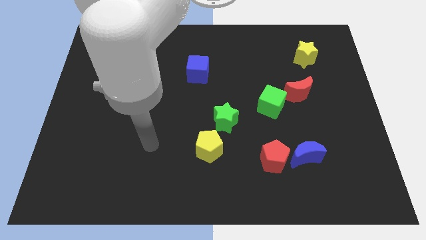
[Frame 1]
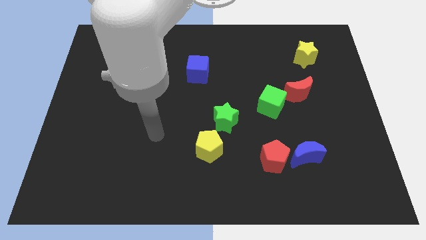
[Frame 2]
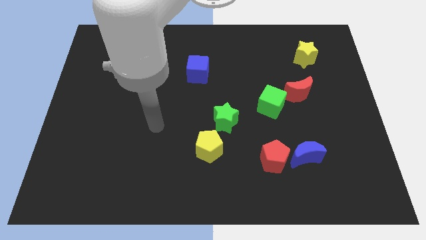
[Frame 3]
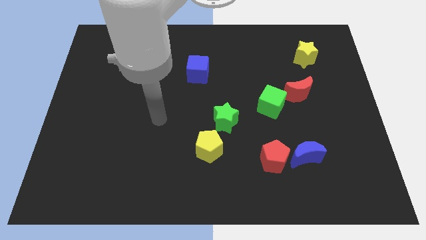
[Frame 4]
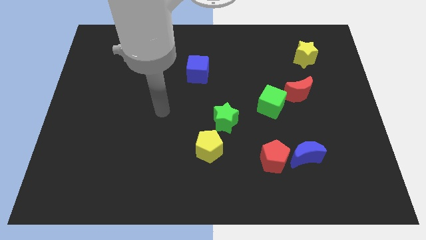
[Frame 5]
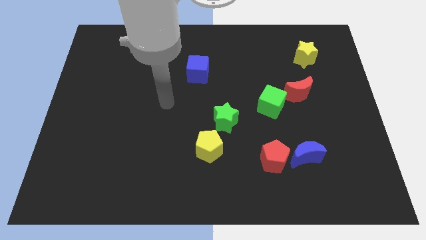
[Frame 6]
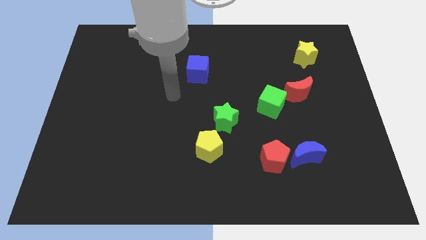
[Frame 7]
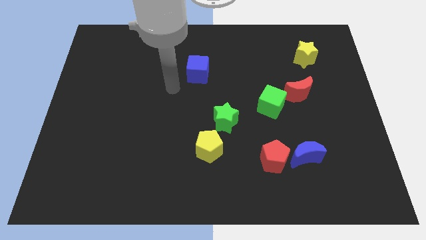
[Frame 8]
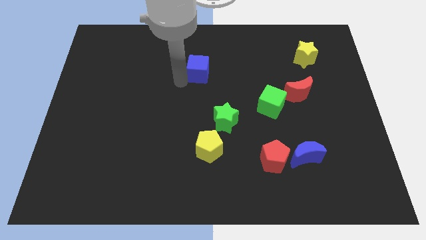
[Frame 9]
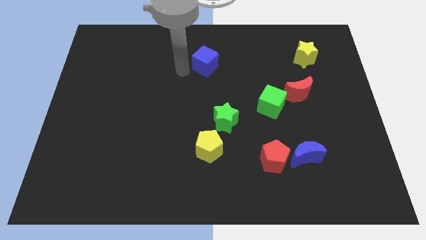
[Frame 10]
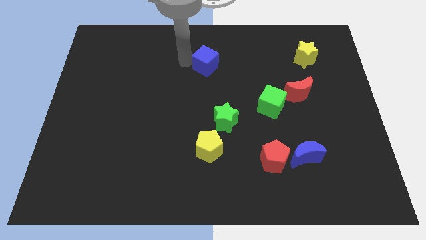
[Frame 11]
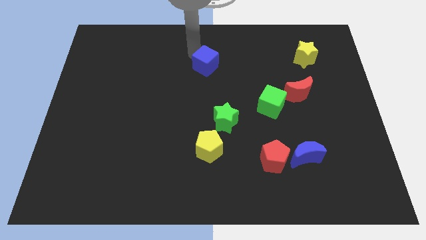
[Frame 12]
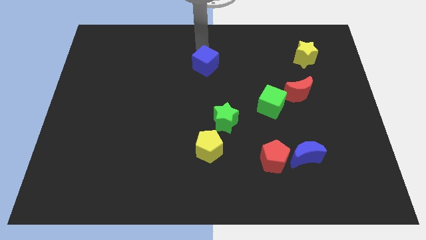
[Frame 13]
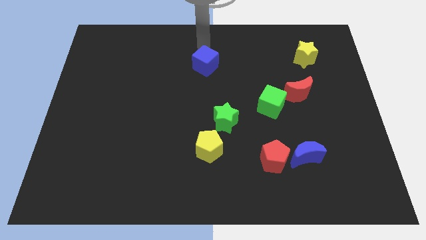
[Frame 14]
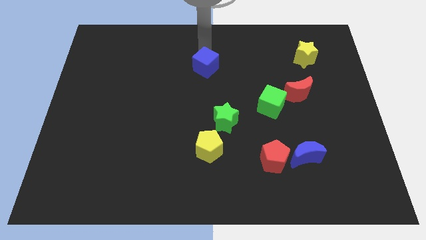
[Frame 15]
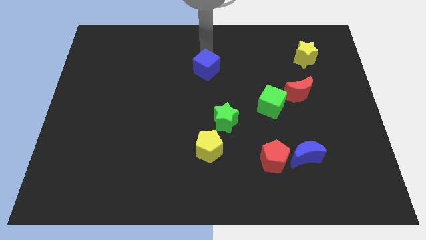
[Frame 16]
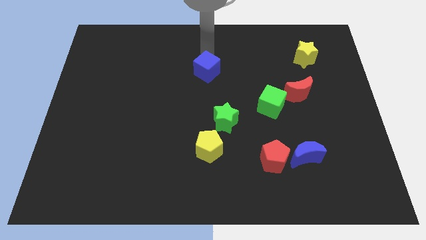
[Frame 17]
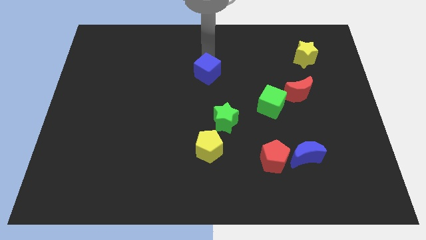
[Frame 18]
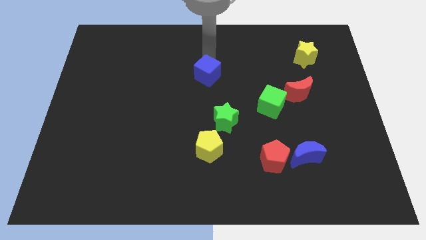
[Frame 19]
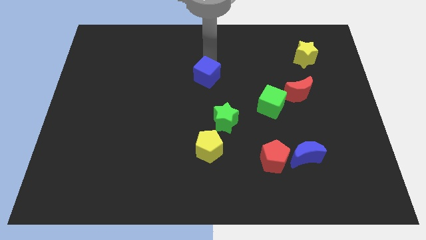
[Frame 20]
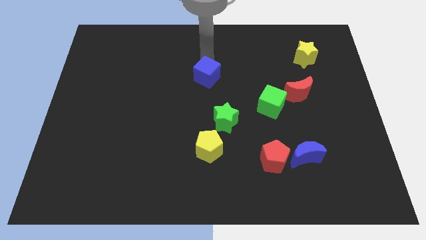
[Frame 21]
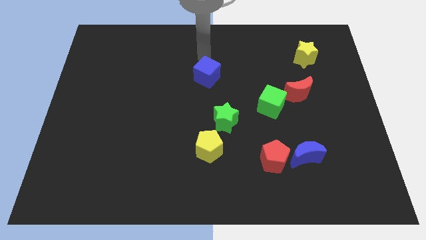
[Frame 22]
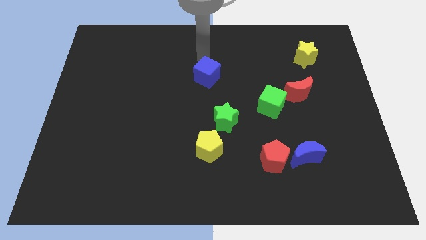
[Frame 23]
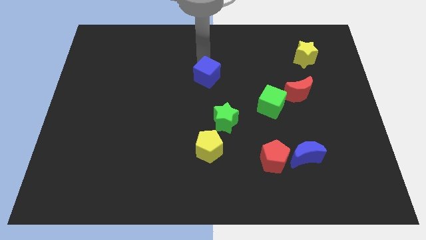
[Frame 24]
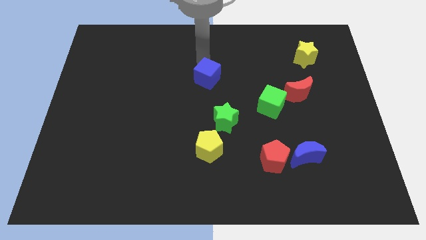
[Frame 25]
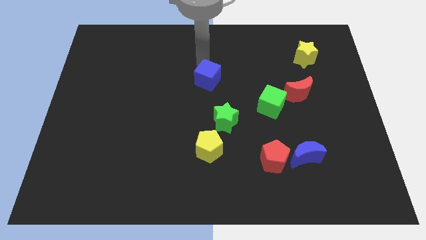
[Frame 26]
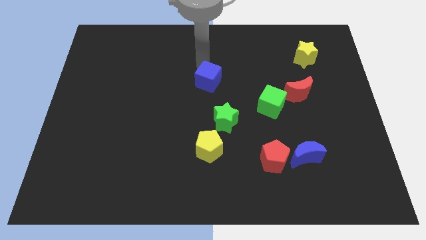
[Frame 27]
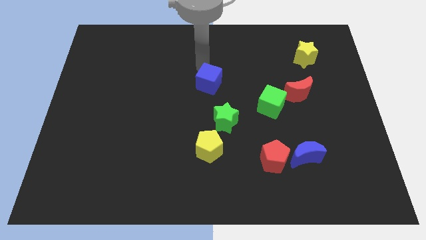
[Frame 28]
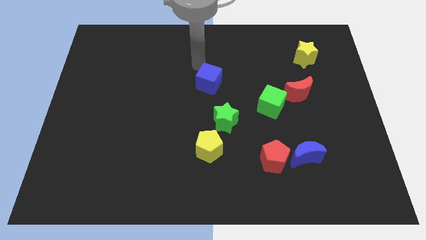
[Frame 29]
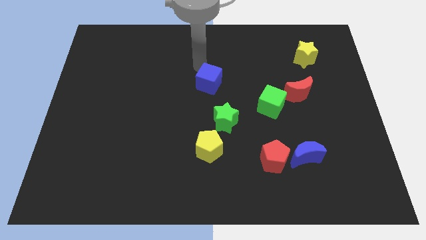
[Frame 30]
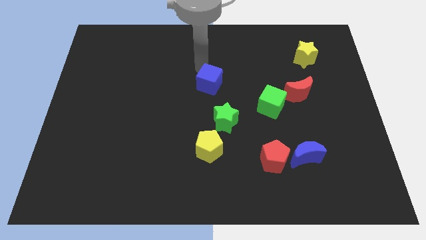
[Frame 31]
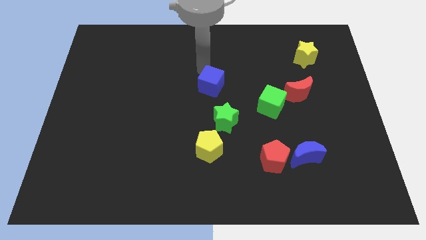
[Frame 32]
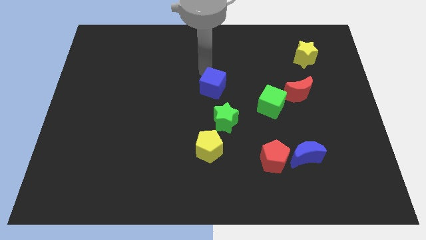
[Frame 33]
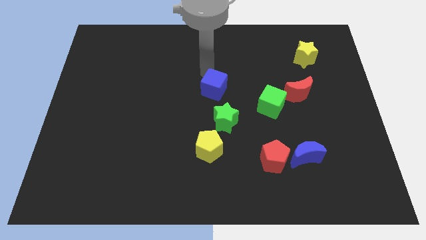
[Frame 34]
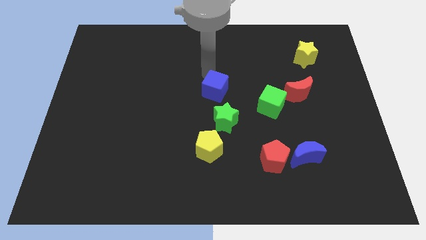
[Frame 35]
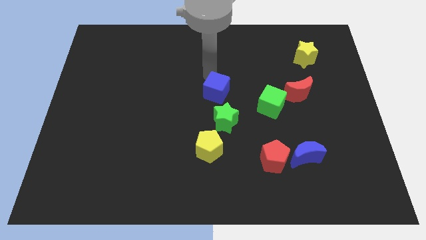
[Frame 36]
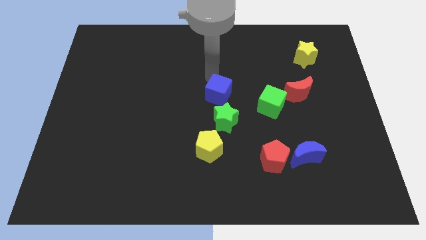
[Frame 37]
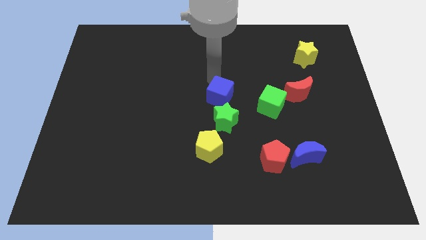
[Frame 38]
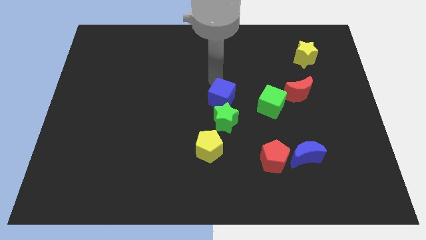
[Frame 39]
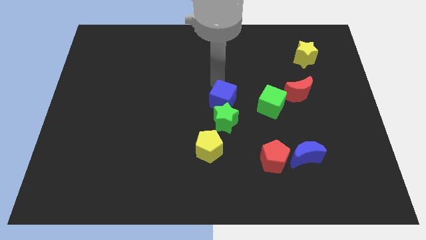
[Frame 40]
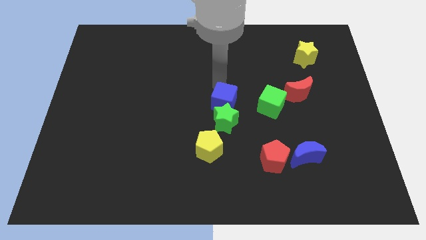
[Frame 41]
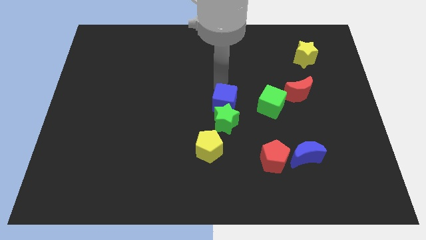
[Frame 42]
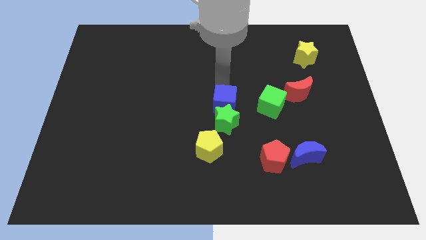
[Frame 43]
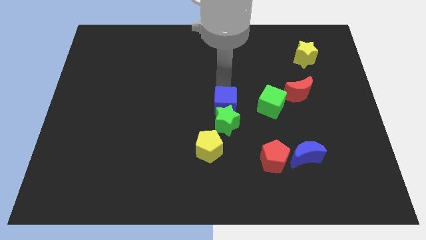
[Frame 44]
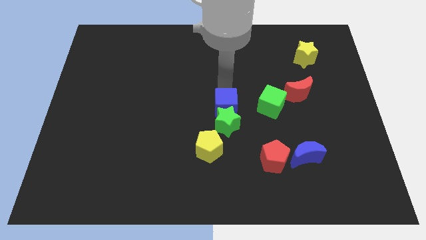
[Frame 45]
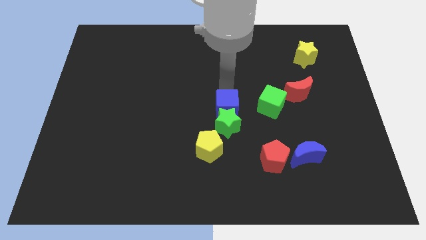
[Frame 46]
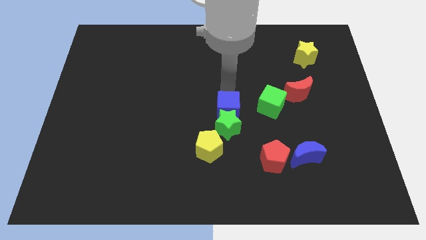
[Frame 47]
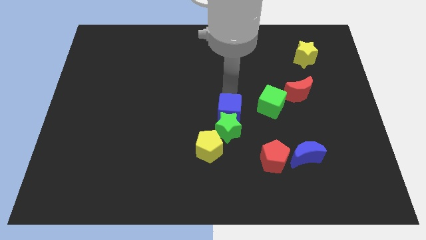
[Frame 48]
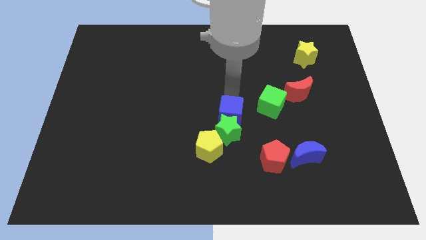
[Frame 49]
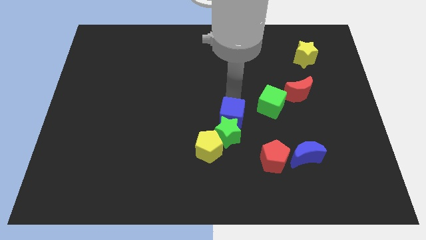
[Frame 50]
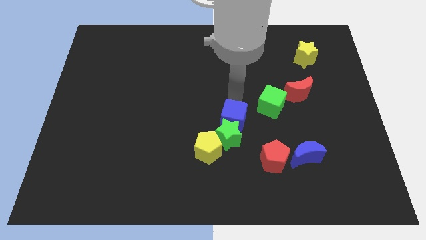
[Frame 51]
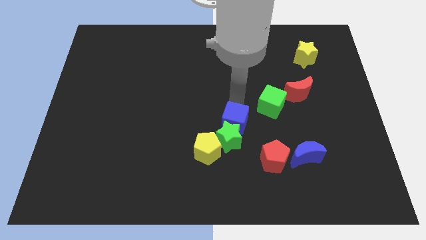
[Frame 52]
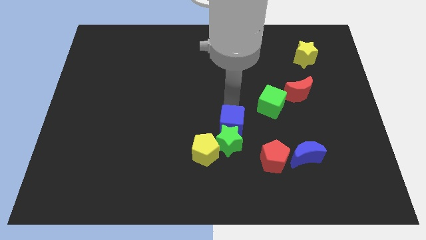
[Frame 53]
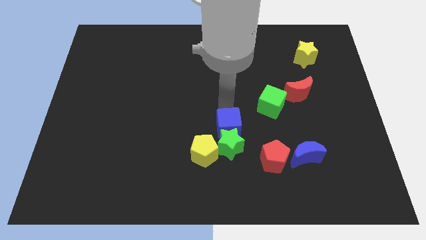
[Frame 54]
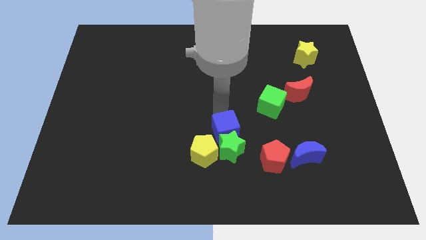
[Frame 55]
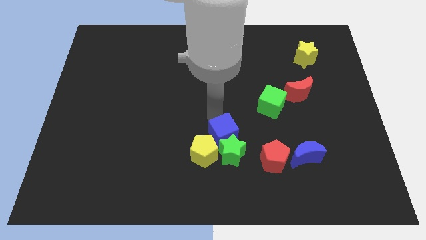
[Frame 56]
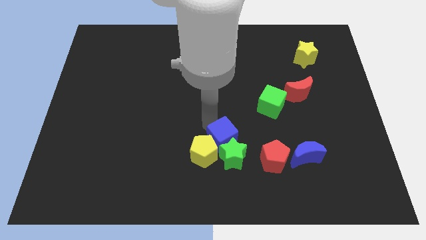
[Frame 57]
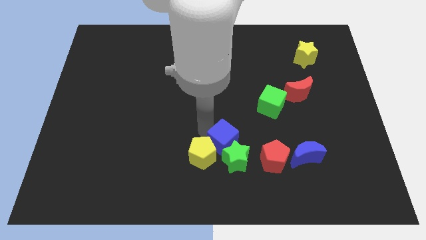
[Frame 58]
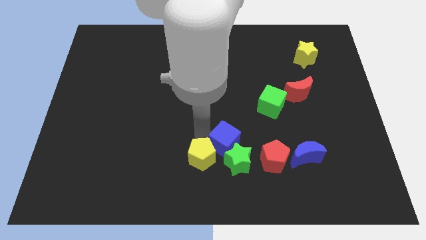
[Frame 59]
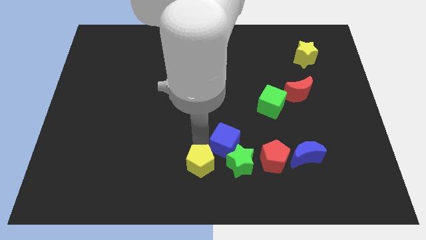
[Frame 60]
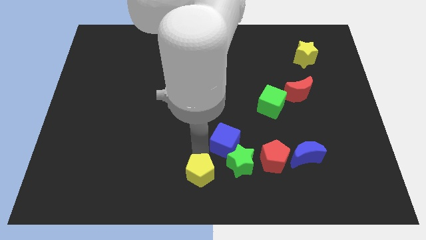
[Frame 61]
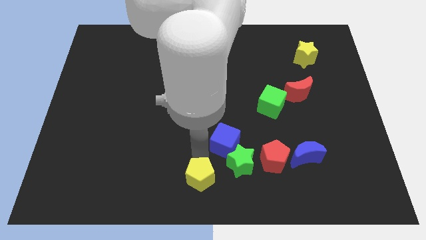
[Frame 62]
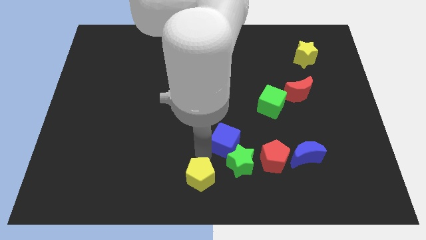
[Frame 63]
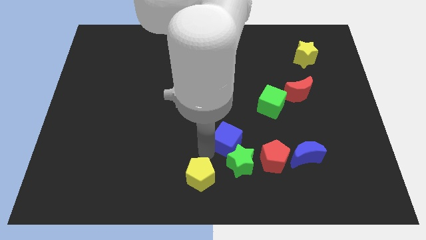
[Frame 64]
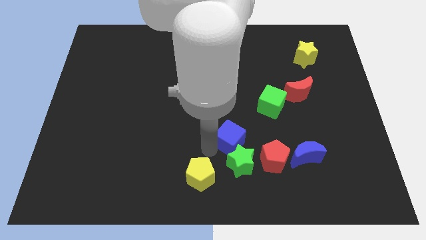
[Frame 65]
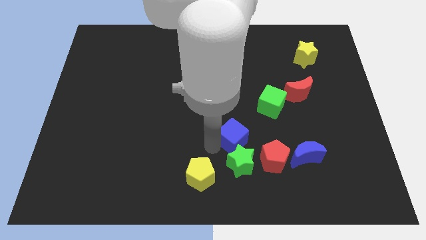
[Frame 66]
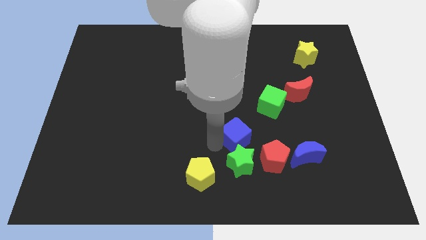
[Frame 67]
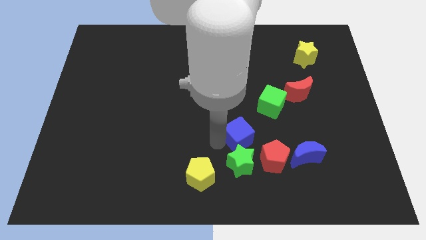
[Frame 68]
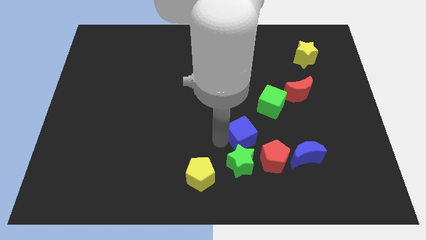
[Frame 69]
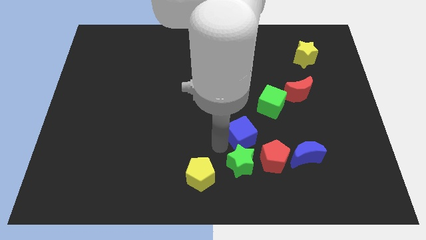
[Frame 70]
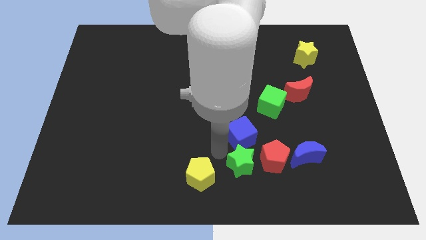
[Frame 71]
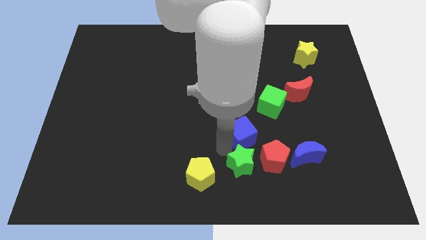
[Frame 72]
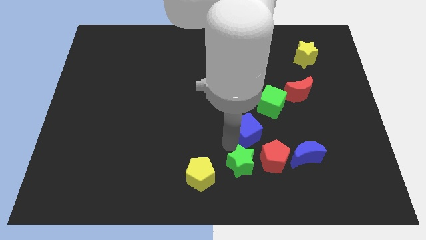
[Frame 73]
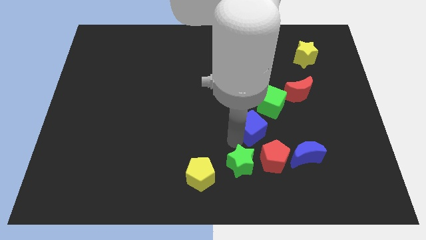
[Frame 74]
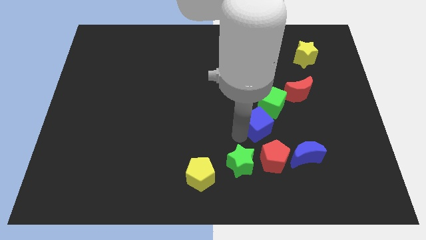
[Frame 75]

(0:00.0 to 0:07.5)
put the blue cube diagonally up and to the left of the blue moon
